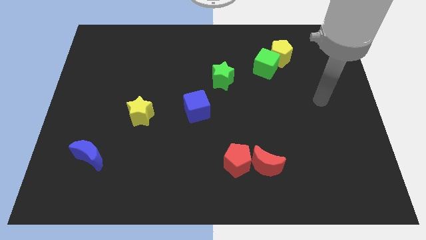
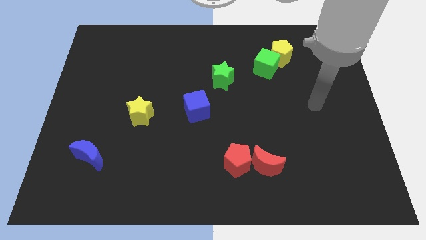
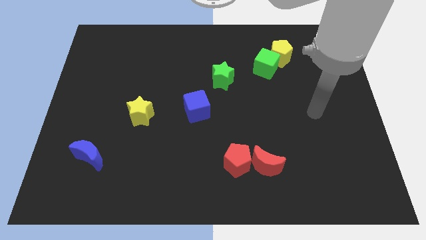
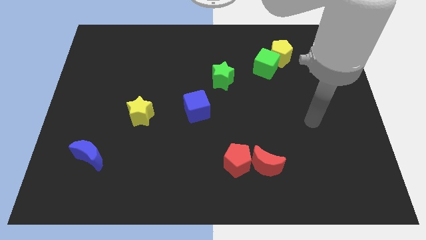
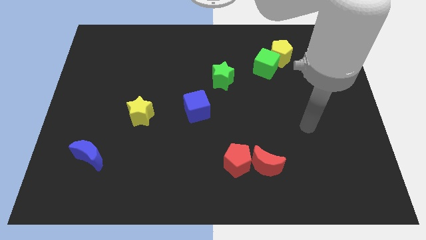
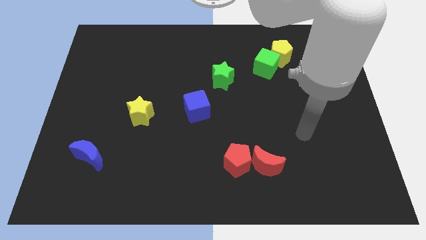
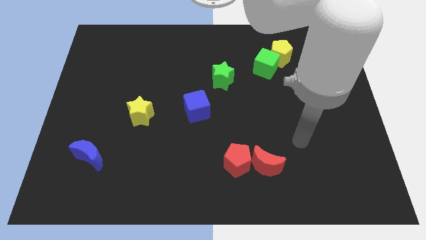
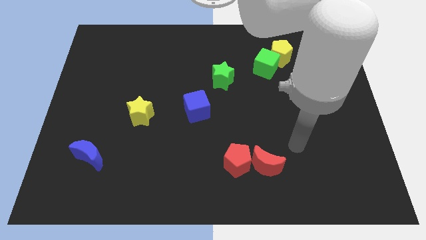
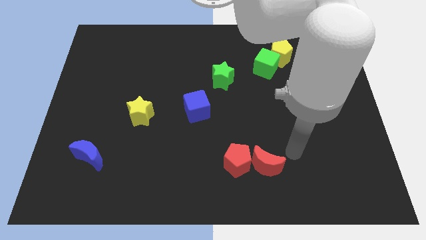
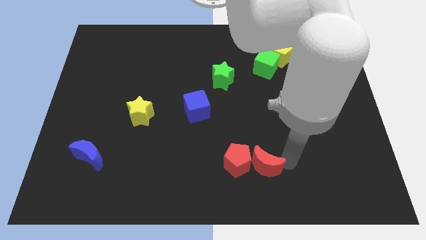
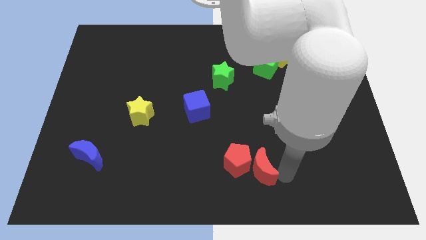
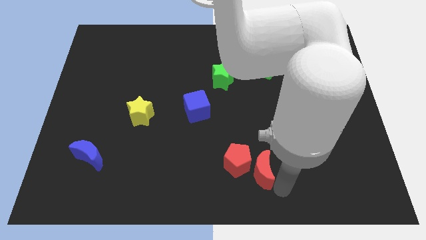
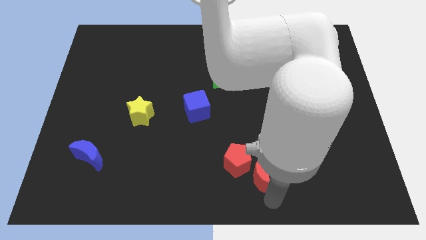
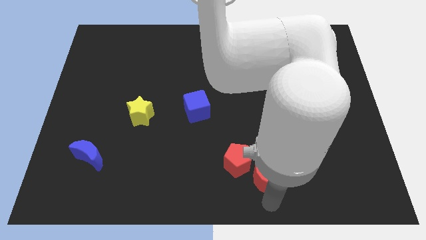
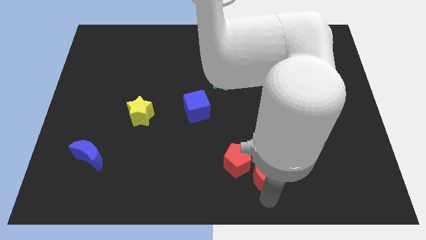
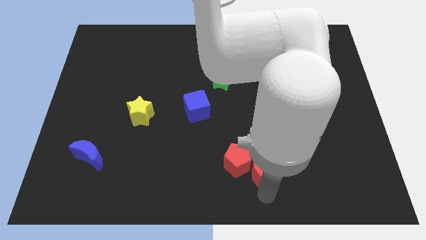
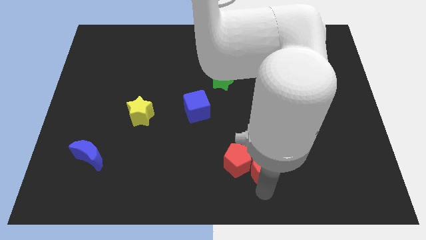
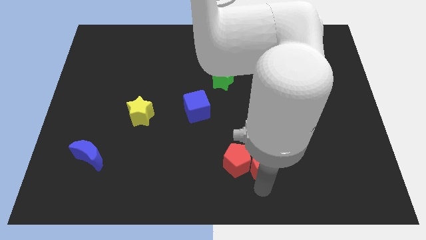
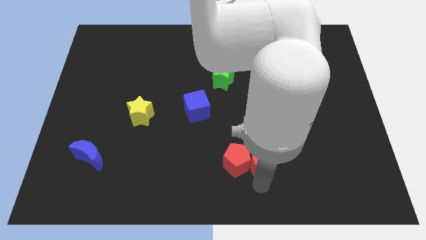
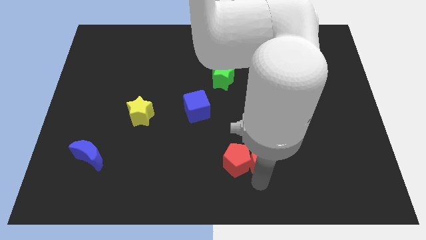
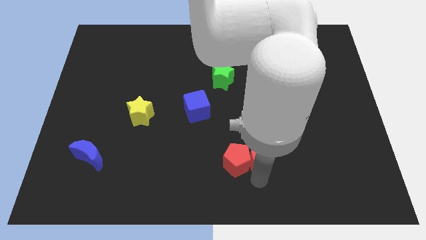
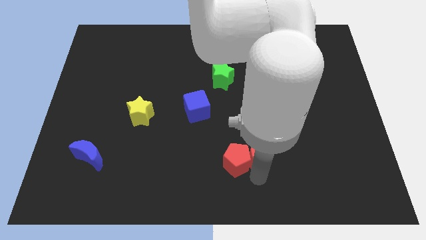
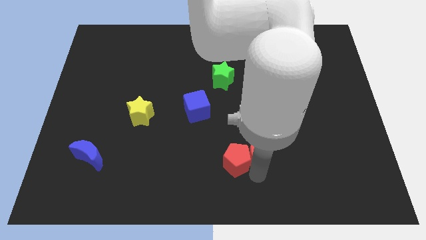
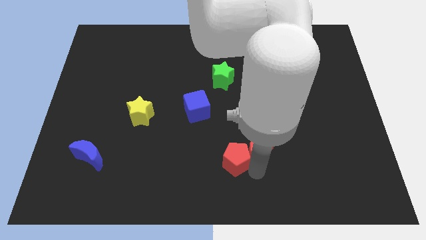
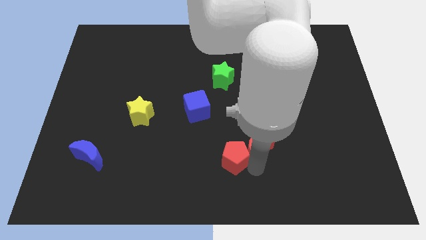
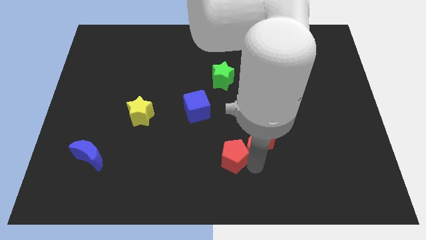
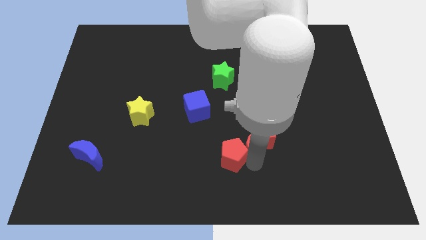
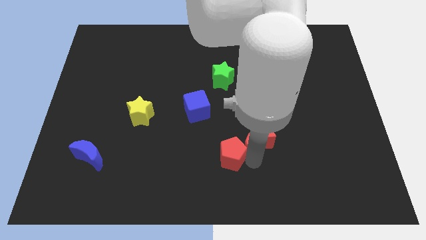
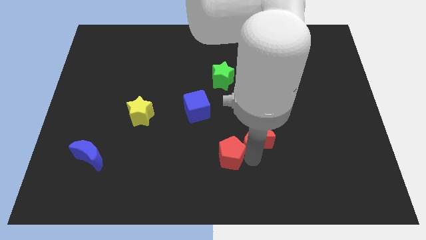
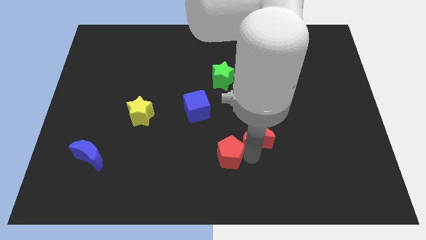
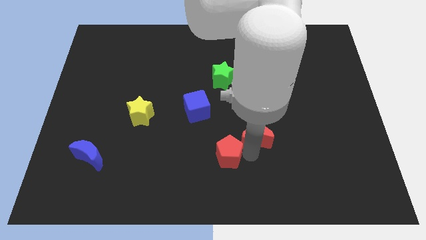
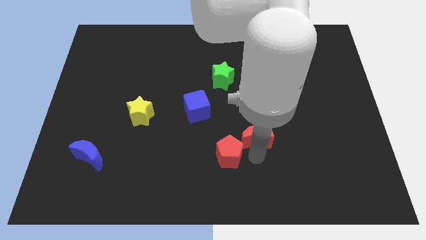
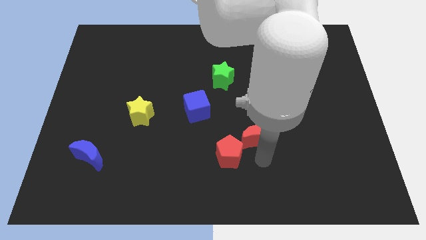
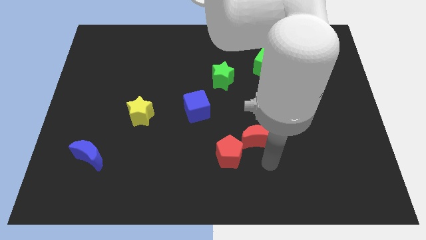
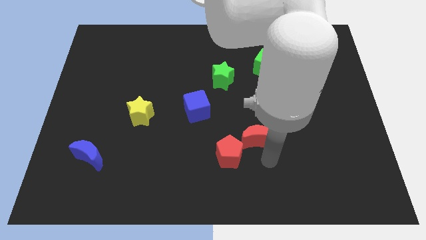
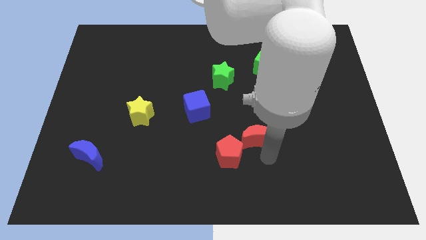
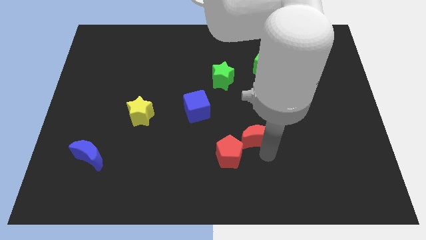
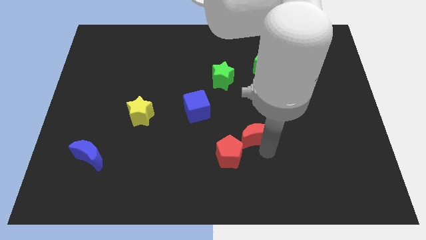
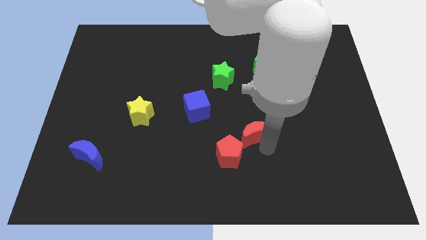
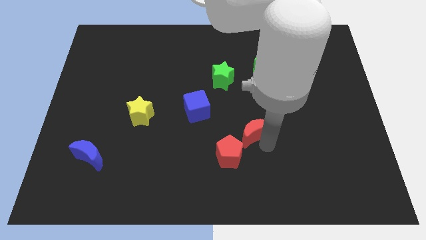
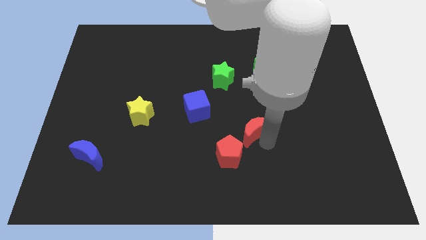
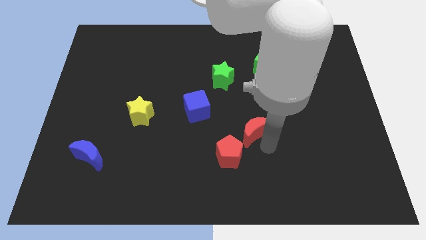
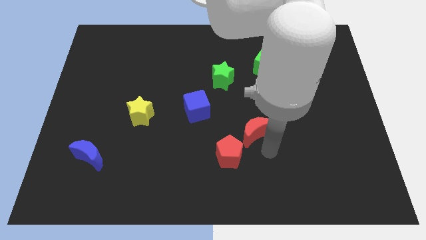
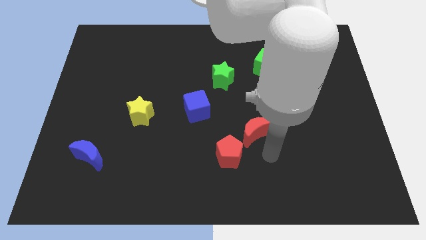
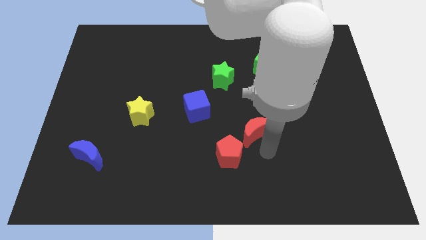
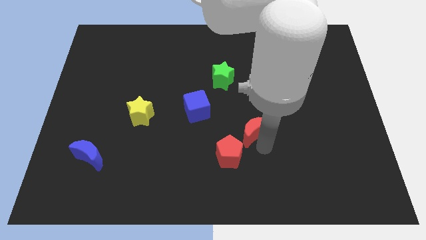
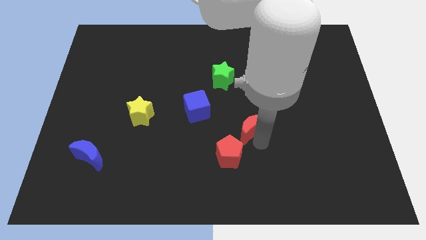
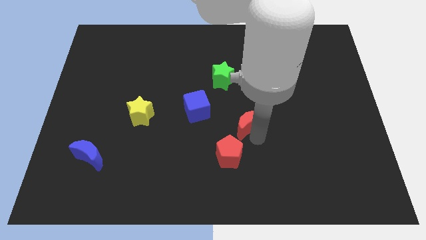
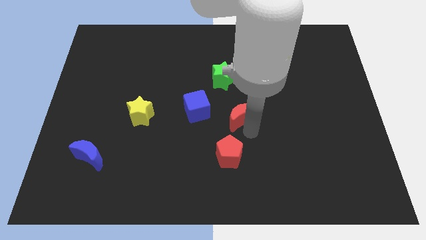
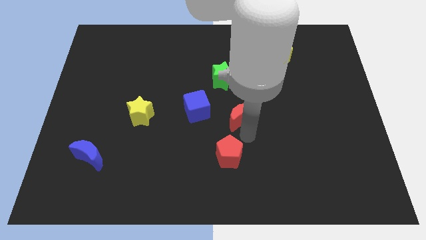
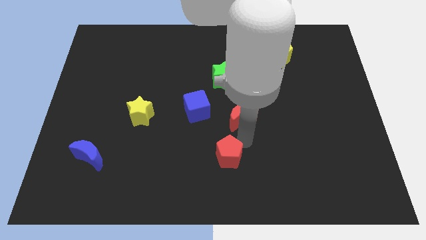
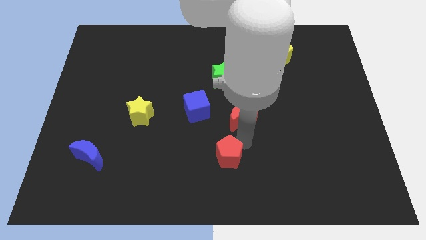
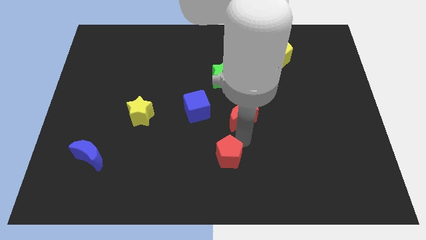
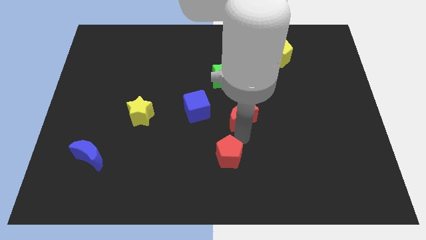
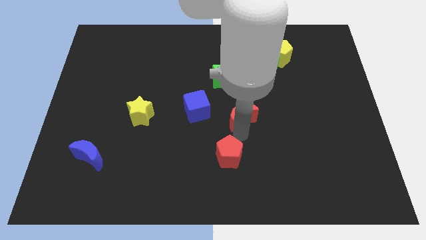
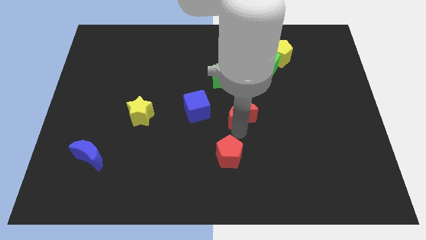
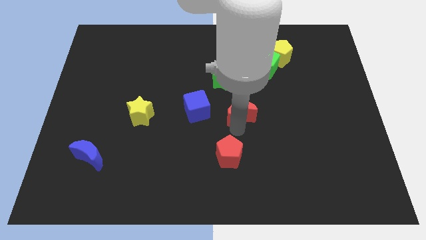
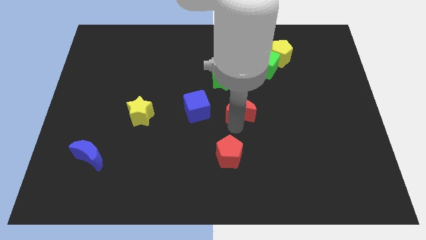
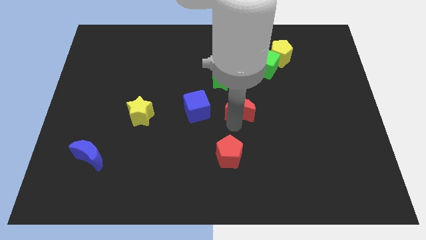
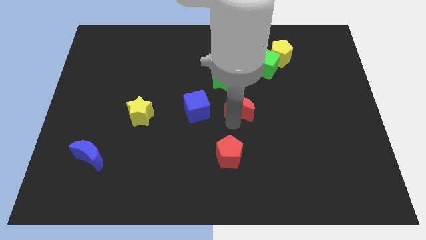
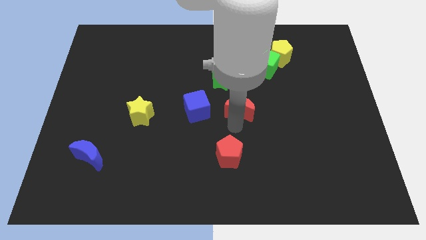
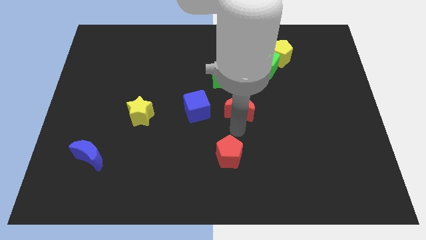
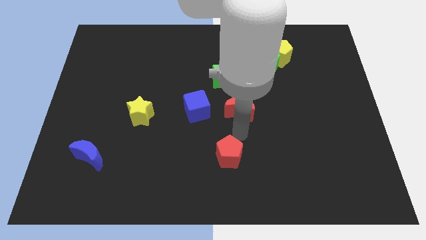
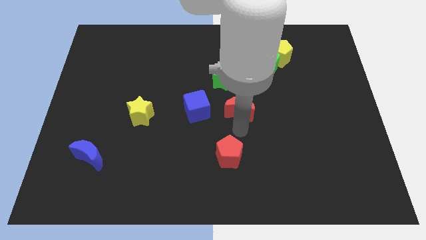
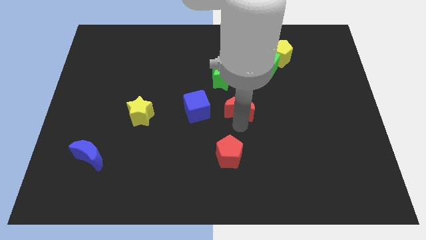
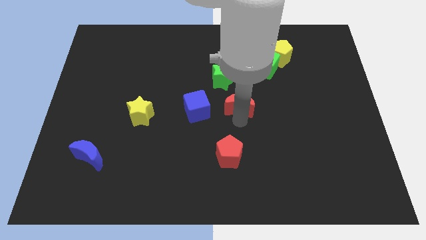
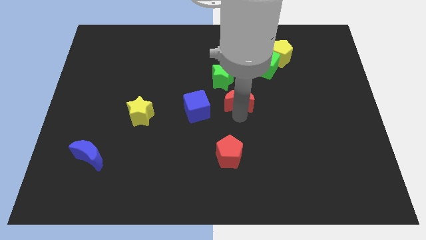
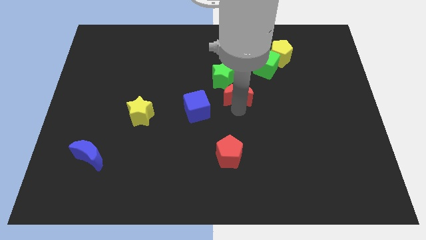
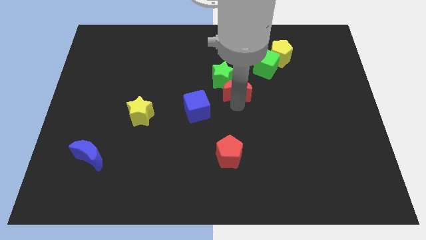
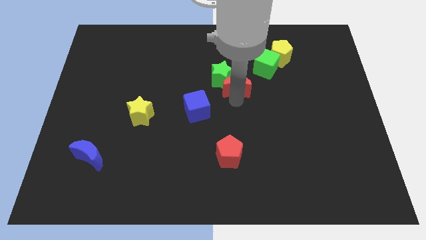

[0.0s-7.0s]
push the red moon up

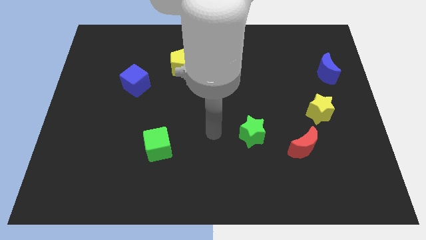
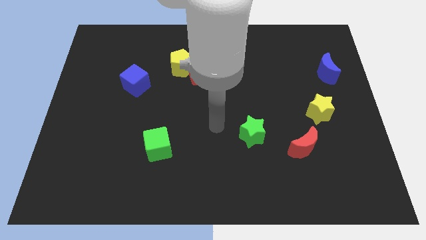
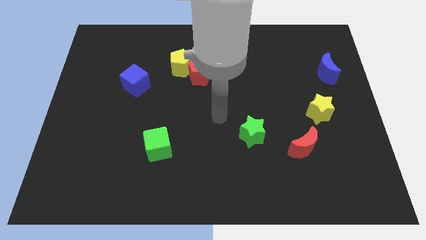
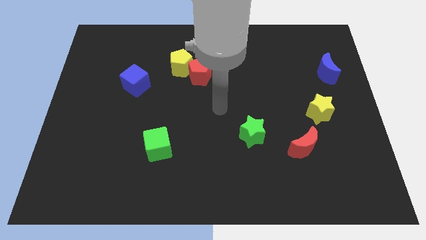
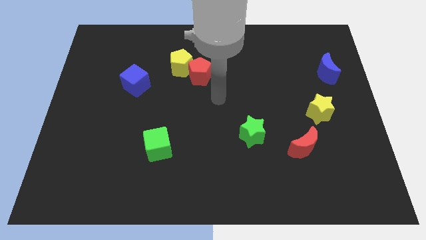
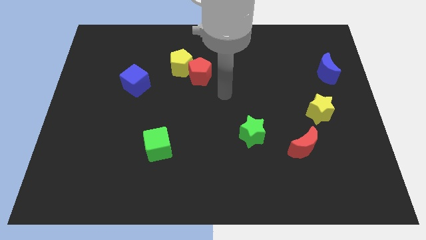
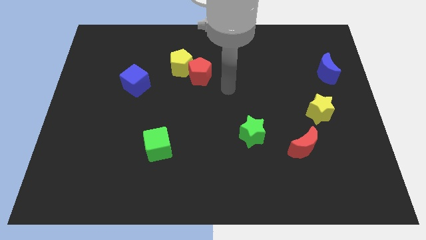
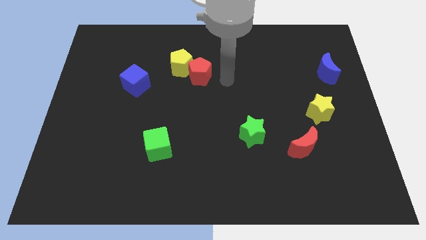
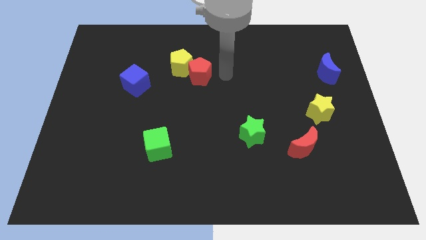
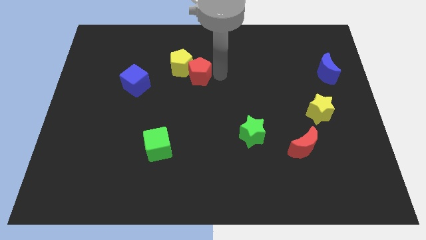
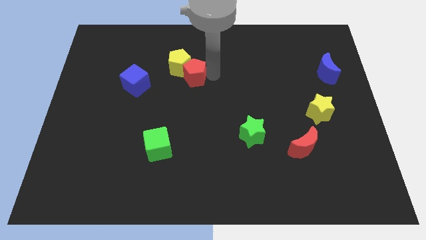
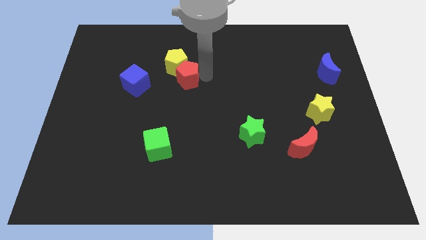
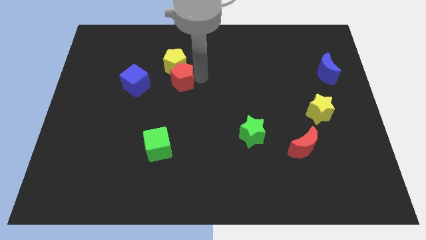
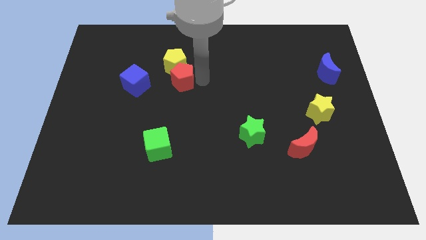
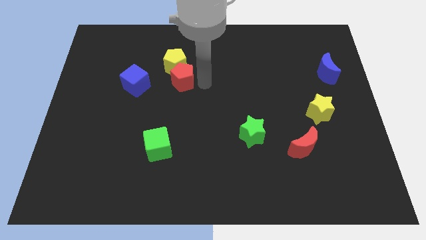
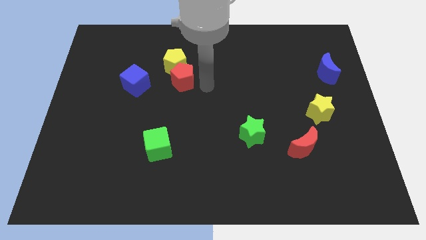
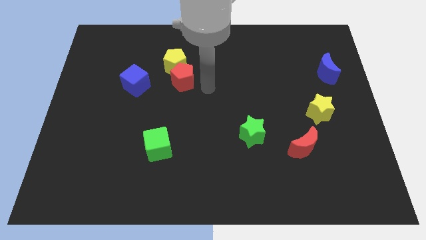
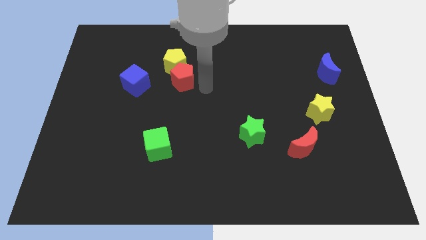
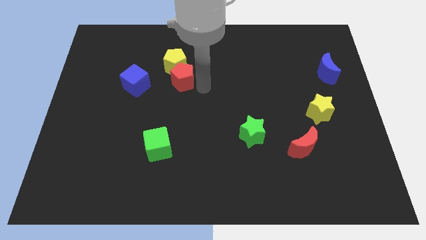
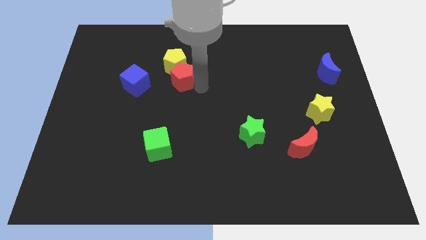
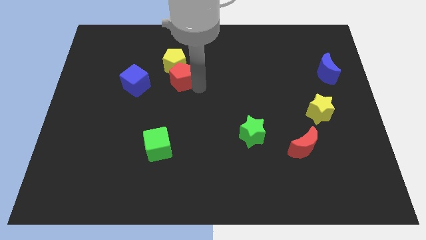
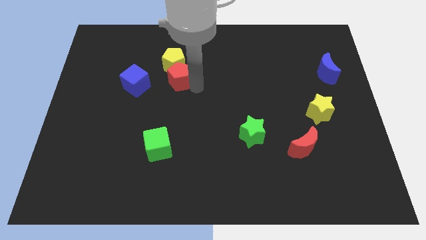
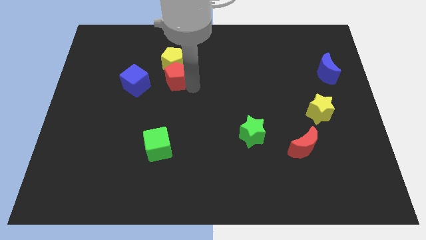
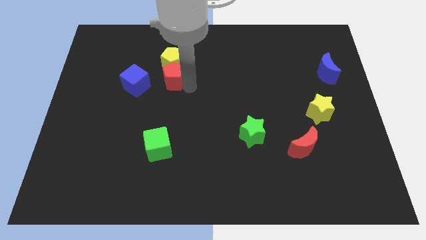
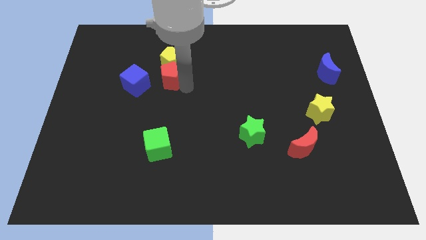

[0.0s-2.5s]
slide the red pentagon left a little
